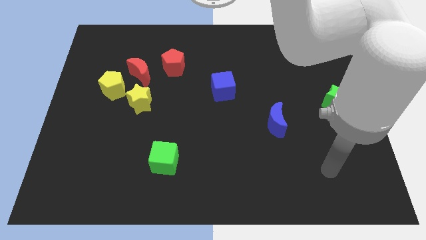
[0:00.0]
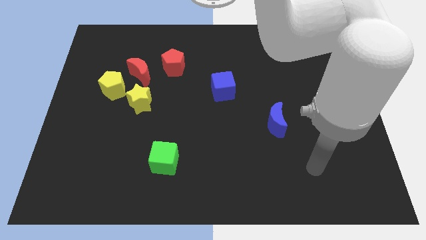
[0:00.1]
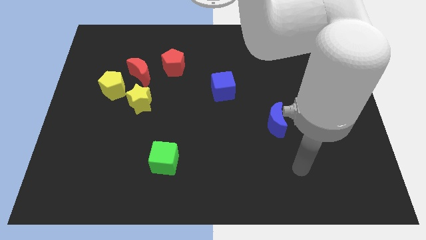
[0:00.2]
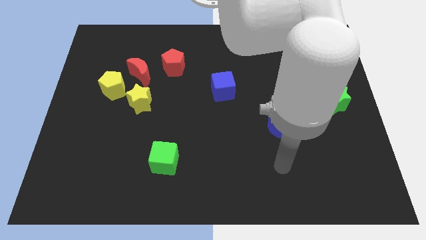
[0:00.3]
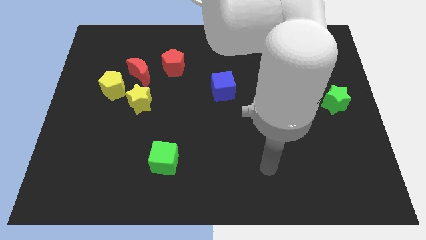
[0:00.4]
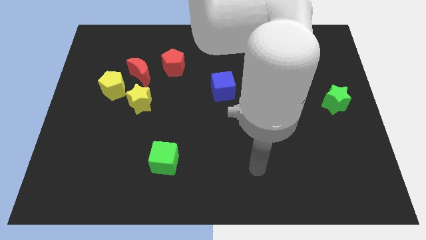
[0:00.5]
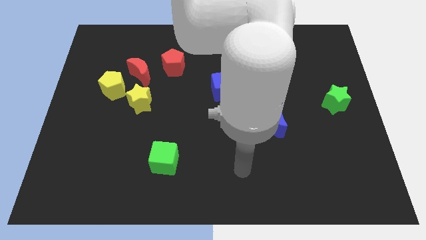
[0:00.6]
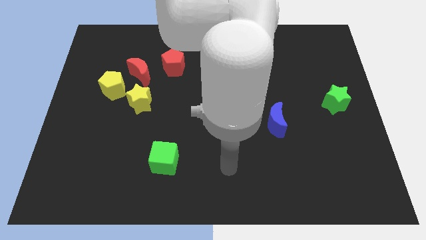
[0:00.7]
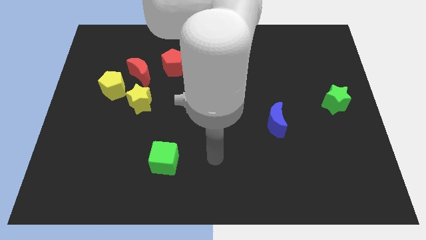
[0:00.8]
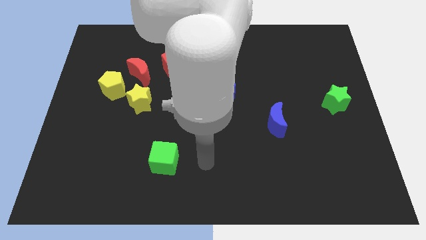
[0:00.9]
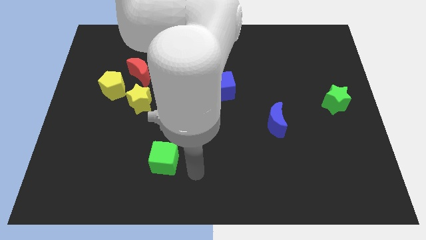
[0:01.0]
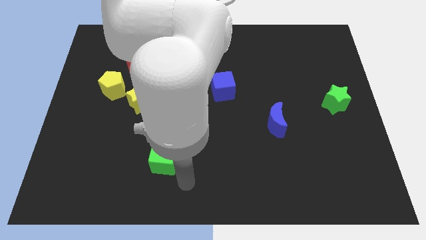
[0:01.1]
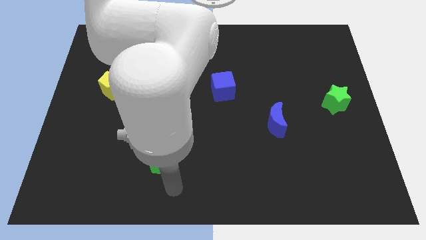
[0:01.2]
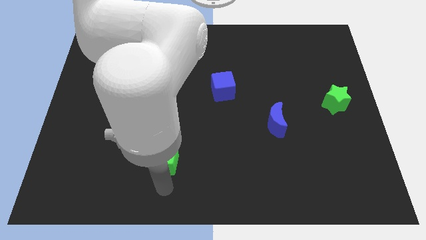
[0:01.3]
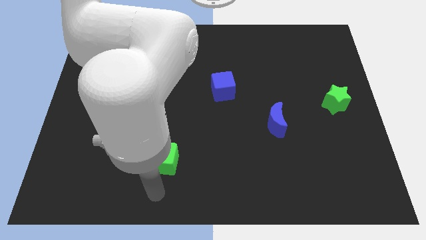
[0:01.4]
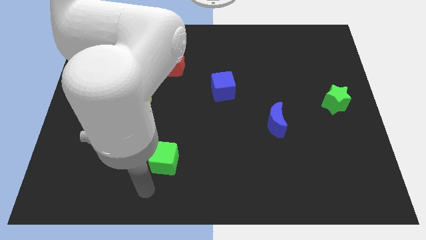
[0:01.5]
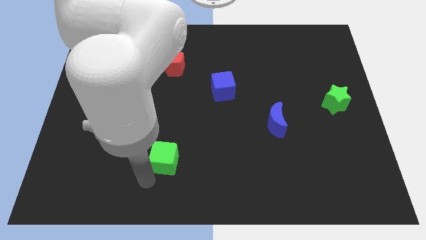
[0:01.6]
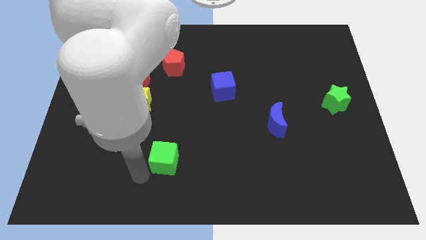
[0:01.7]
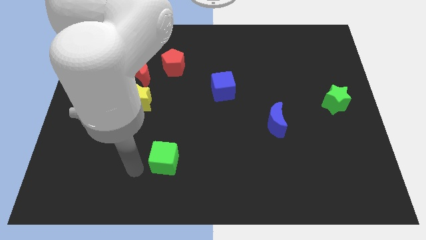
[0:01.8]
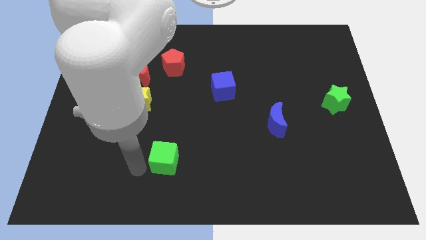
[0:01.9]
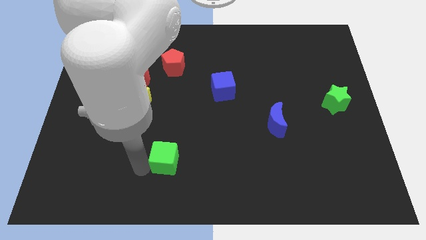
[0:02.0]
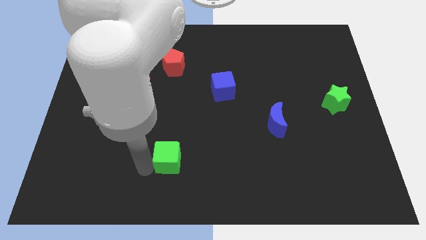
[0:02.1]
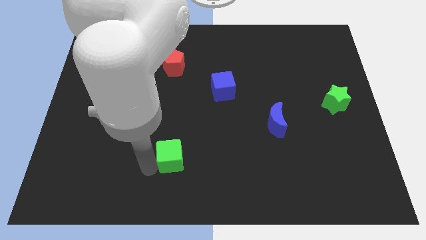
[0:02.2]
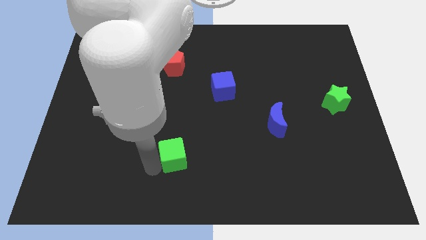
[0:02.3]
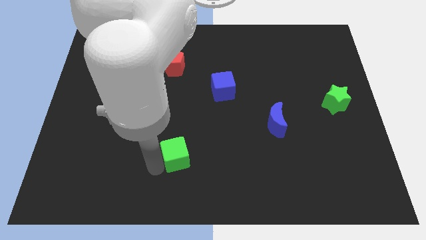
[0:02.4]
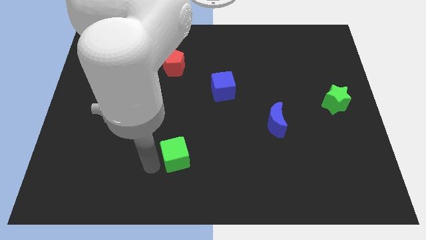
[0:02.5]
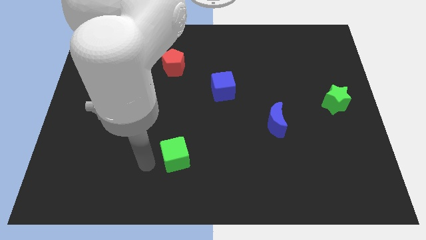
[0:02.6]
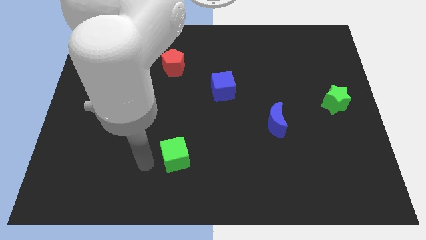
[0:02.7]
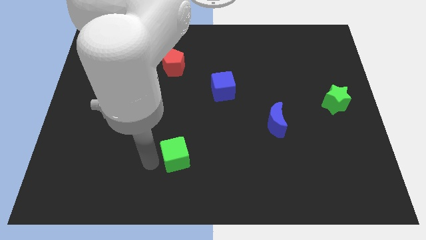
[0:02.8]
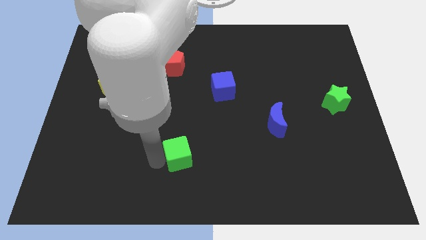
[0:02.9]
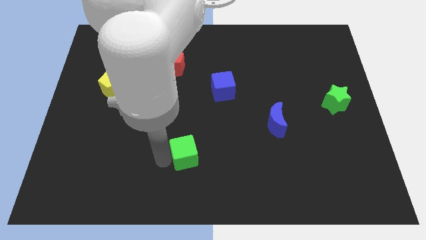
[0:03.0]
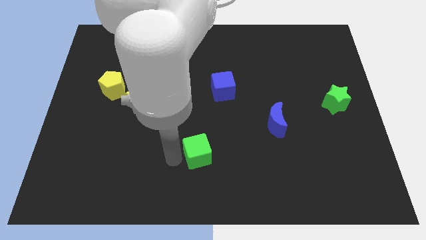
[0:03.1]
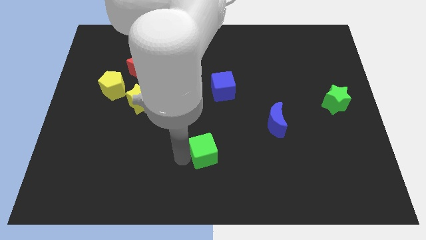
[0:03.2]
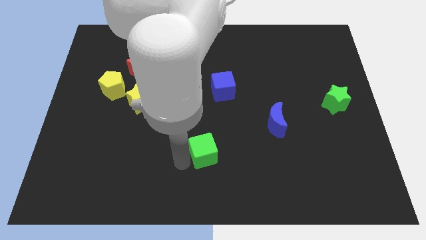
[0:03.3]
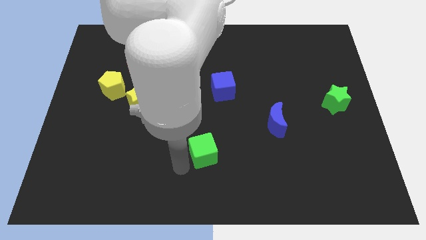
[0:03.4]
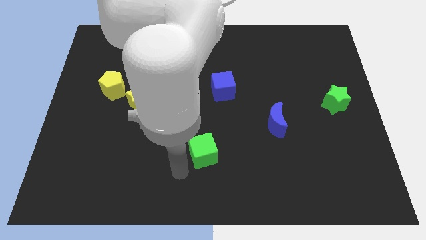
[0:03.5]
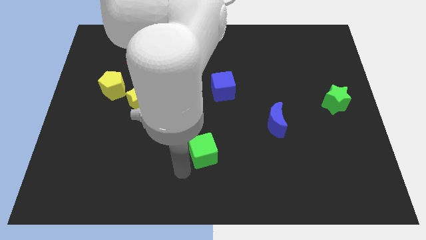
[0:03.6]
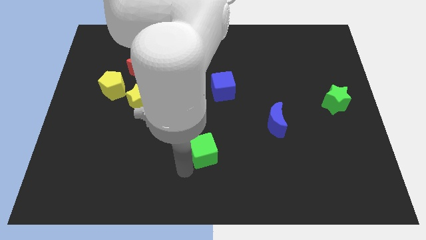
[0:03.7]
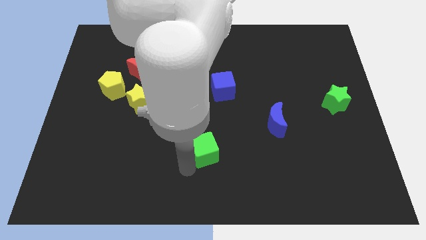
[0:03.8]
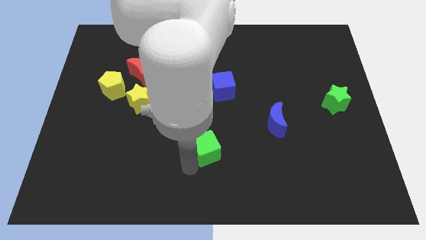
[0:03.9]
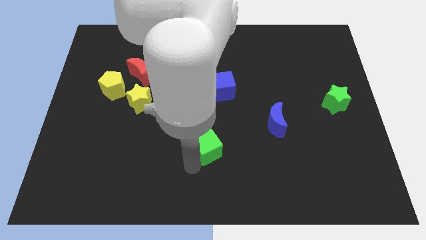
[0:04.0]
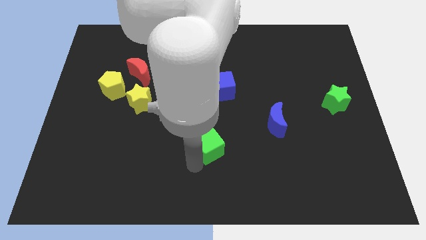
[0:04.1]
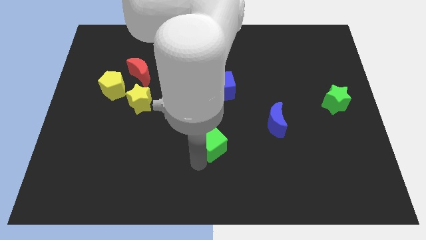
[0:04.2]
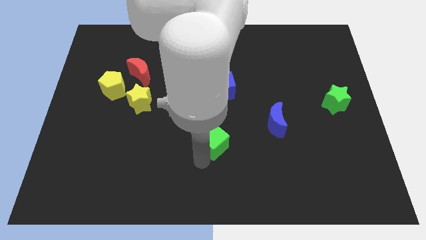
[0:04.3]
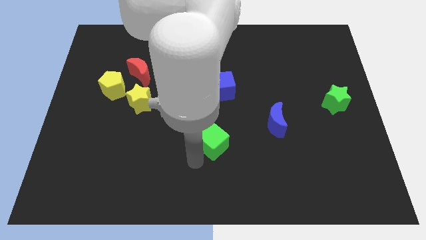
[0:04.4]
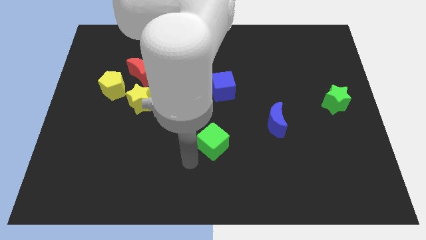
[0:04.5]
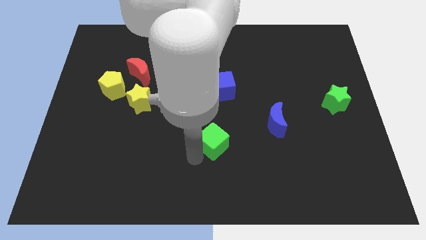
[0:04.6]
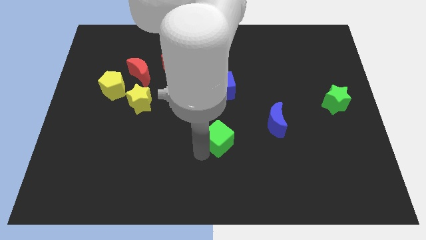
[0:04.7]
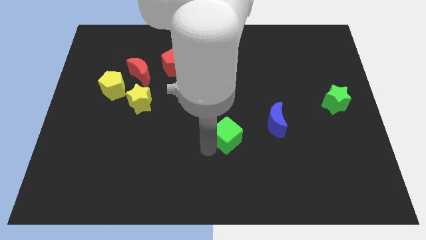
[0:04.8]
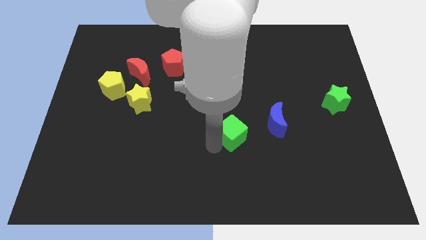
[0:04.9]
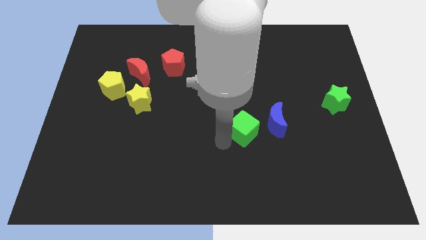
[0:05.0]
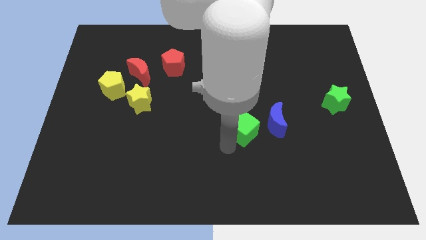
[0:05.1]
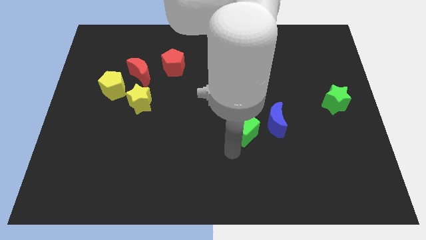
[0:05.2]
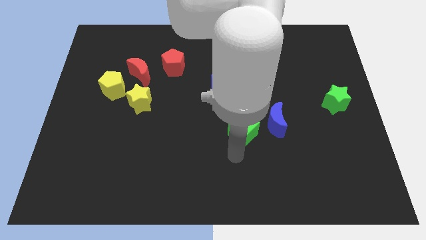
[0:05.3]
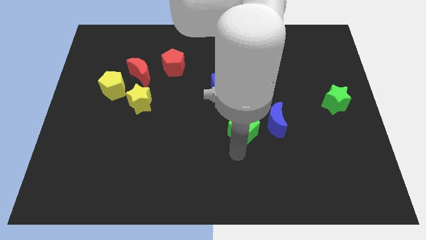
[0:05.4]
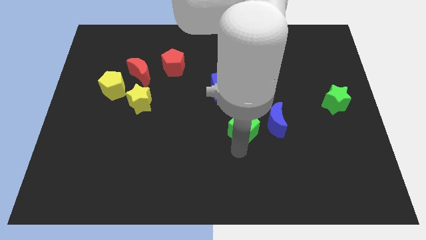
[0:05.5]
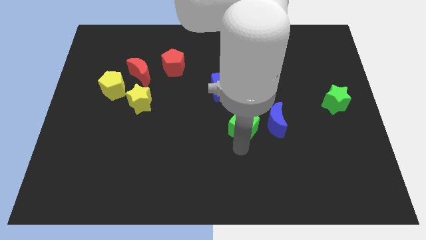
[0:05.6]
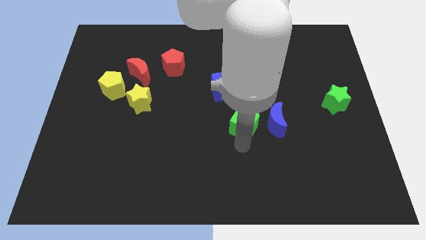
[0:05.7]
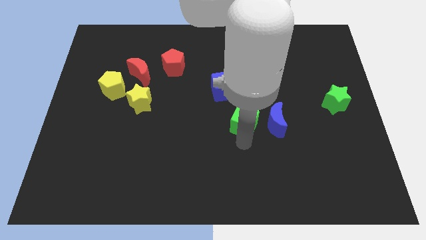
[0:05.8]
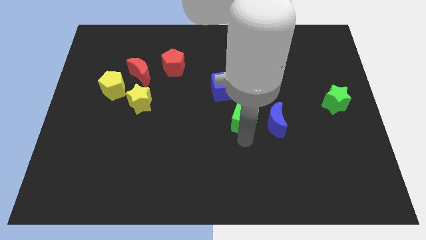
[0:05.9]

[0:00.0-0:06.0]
move the green cube to the top left side of the blue moon

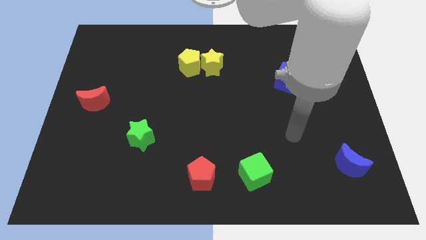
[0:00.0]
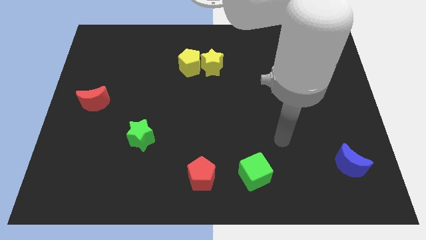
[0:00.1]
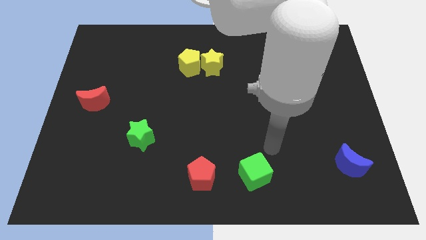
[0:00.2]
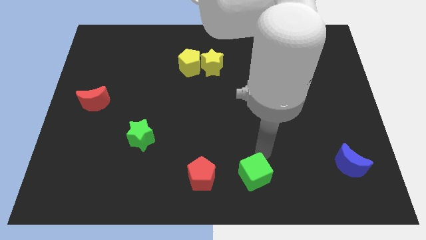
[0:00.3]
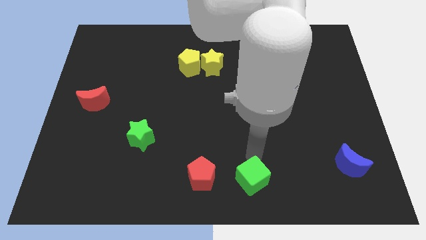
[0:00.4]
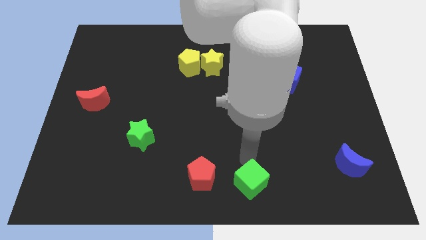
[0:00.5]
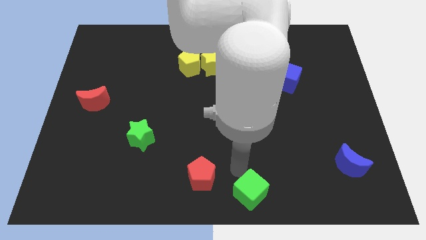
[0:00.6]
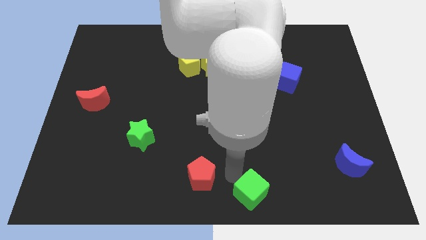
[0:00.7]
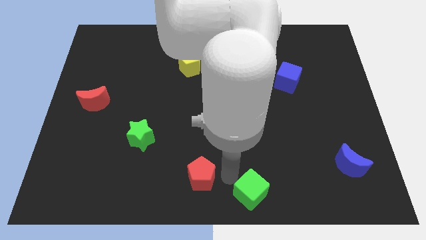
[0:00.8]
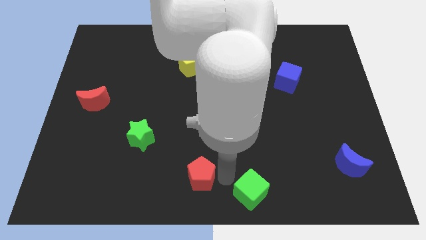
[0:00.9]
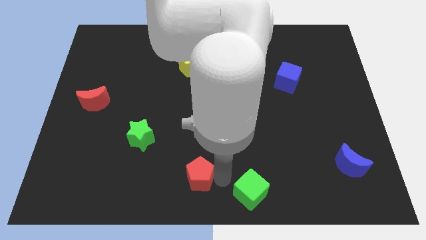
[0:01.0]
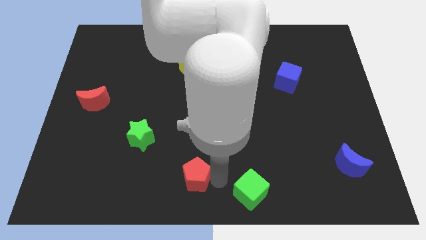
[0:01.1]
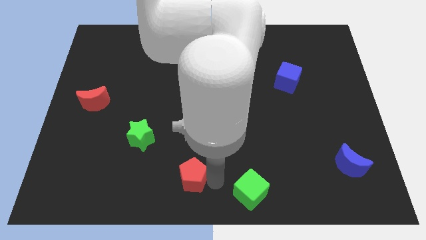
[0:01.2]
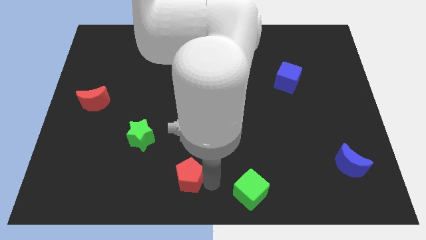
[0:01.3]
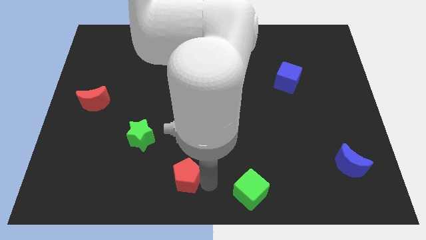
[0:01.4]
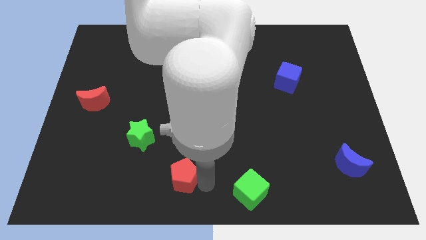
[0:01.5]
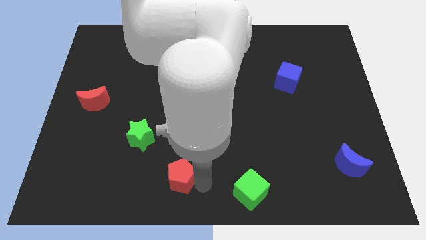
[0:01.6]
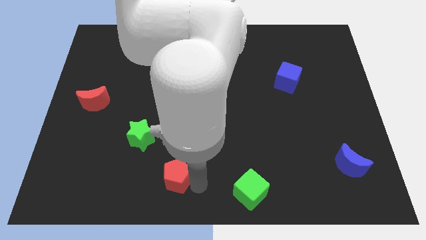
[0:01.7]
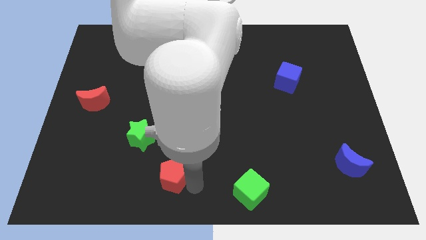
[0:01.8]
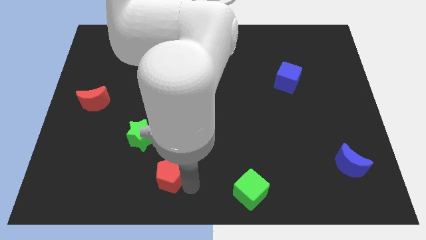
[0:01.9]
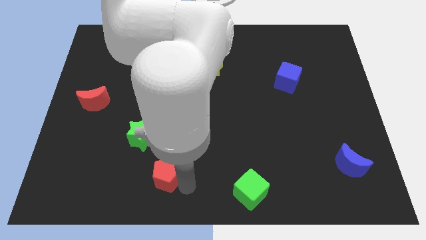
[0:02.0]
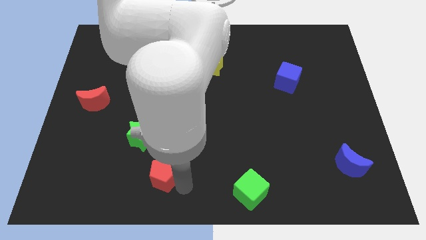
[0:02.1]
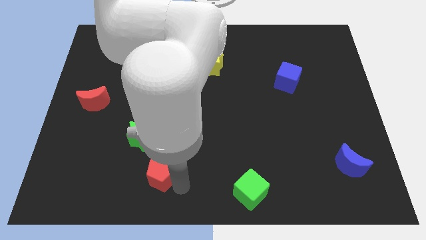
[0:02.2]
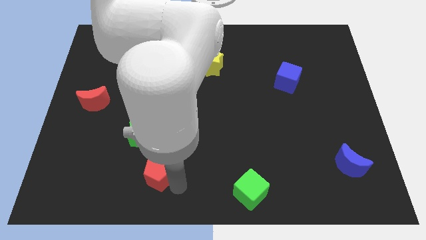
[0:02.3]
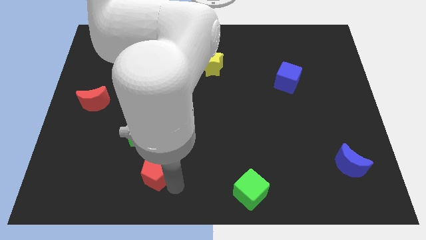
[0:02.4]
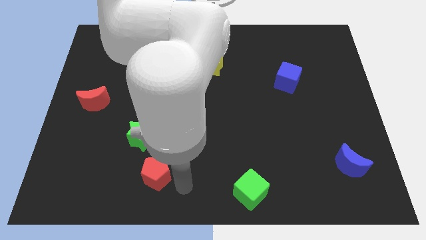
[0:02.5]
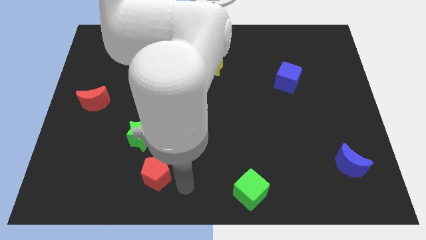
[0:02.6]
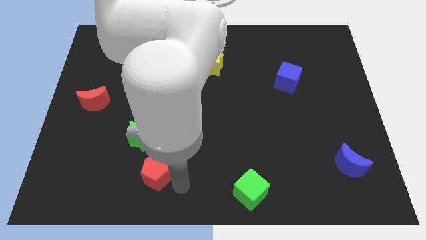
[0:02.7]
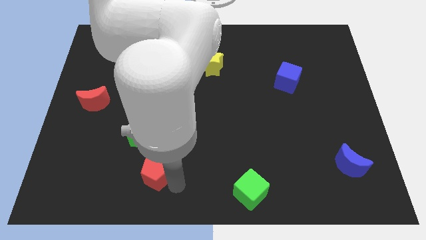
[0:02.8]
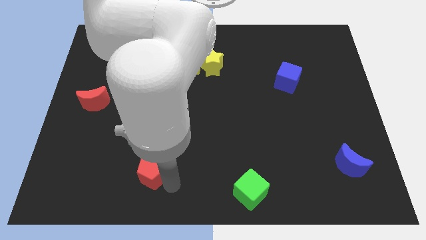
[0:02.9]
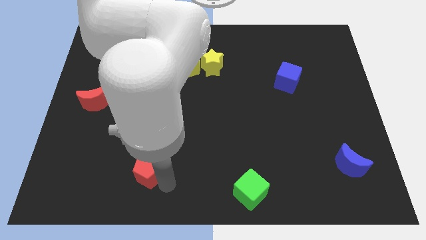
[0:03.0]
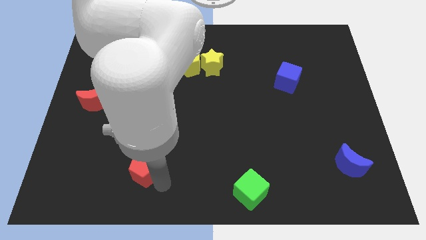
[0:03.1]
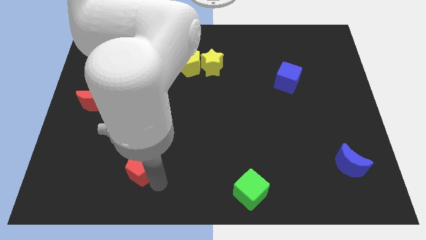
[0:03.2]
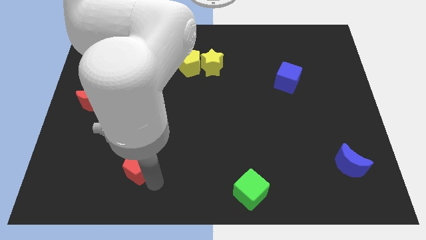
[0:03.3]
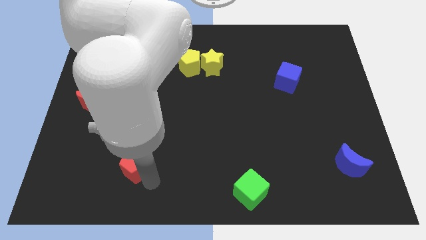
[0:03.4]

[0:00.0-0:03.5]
put the red pentagon to the bottom left of the green star
